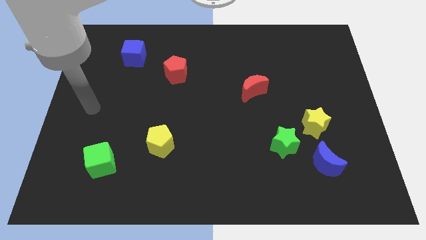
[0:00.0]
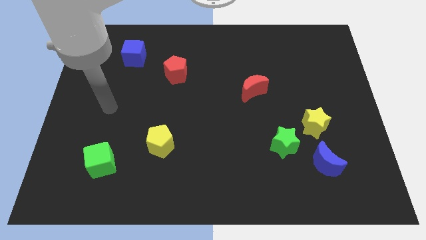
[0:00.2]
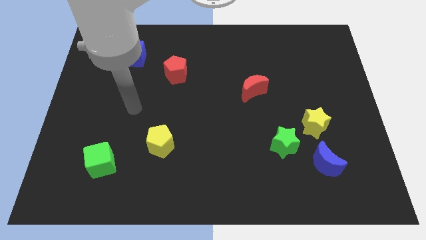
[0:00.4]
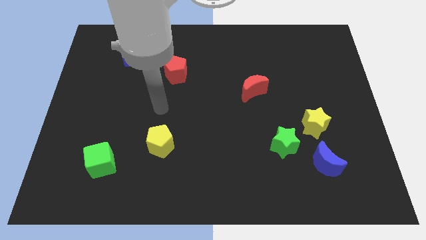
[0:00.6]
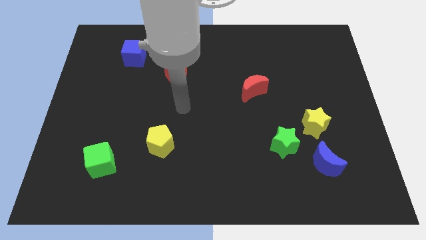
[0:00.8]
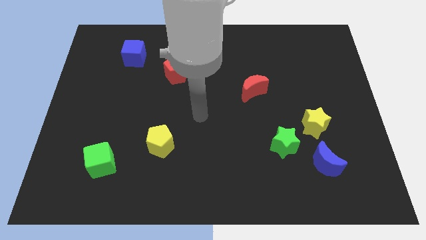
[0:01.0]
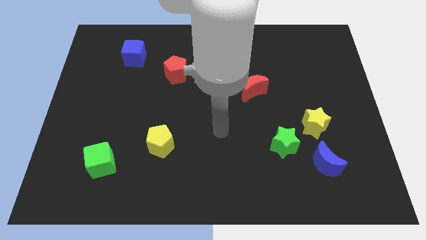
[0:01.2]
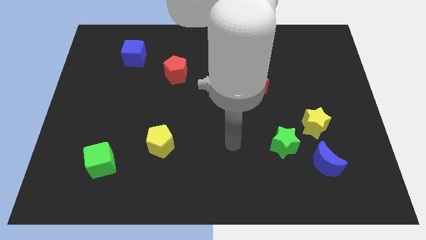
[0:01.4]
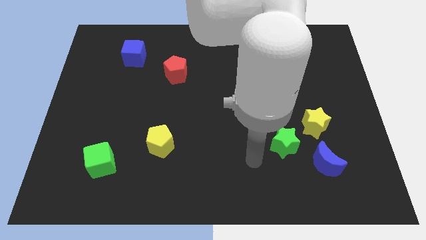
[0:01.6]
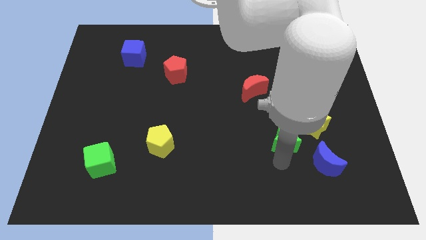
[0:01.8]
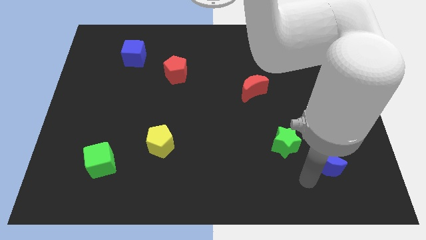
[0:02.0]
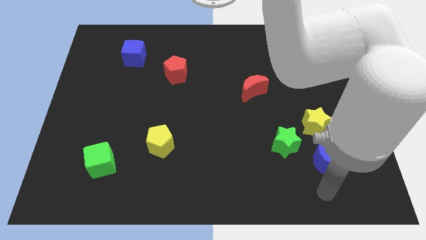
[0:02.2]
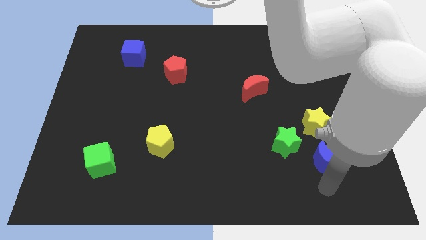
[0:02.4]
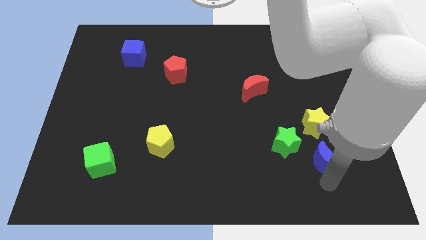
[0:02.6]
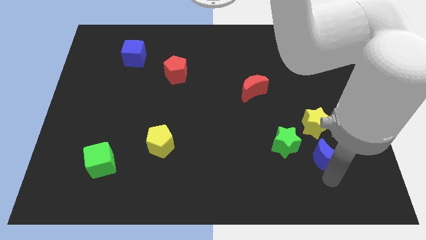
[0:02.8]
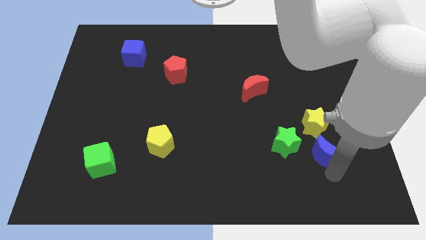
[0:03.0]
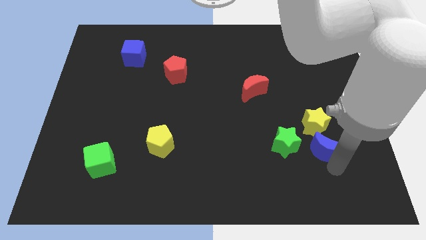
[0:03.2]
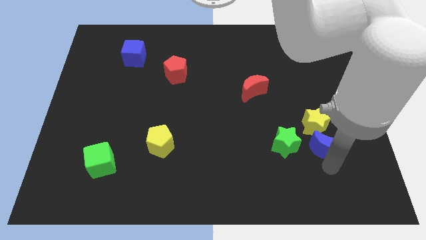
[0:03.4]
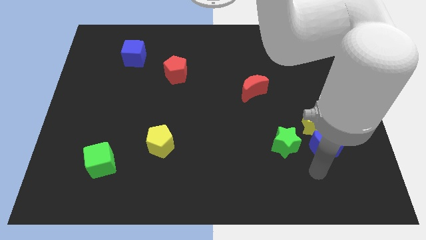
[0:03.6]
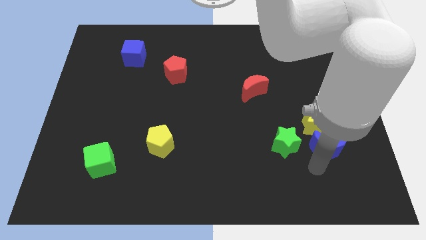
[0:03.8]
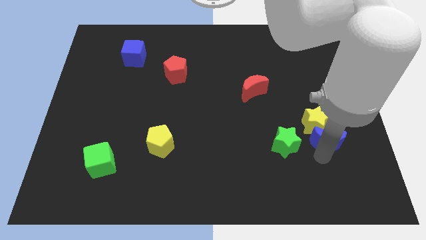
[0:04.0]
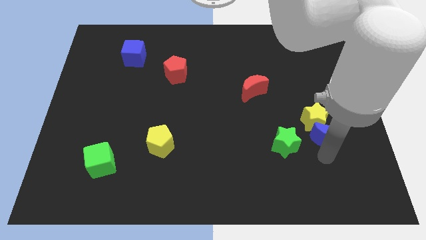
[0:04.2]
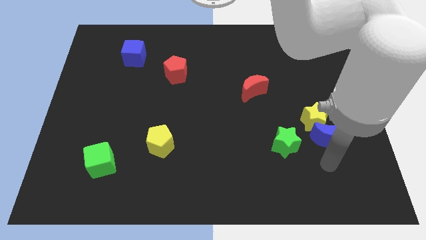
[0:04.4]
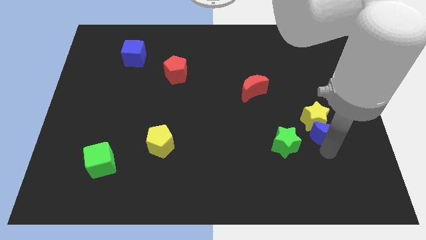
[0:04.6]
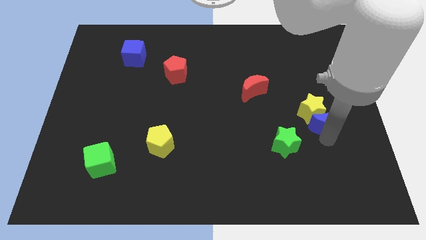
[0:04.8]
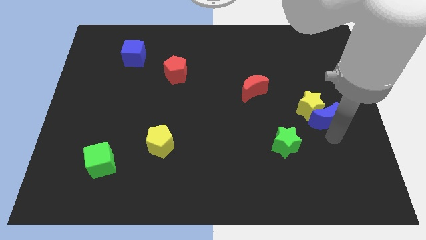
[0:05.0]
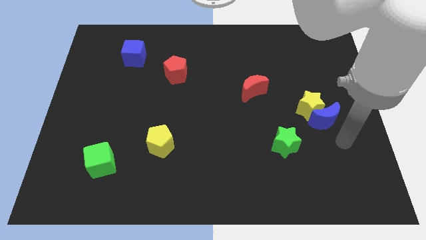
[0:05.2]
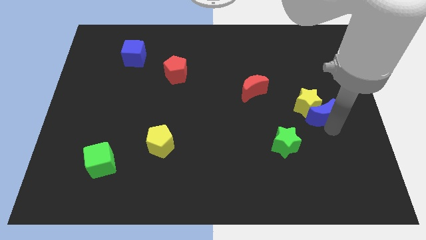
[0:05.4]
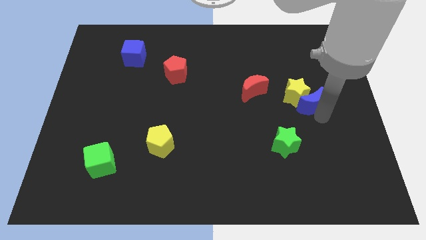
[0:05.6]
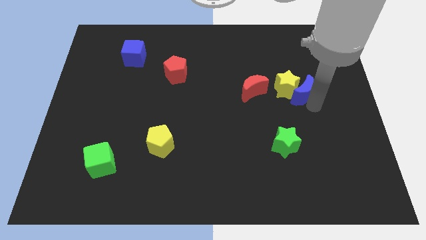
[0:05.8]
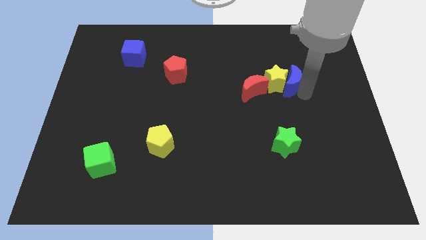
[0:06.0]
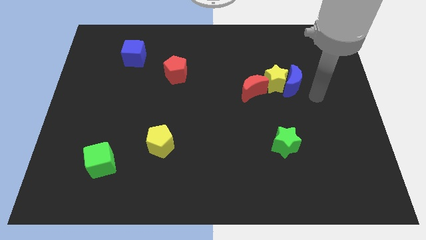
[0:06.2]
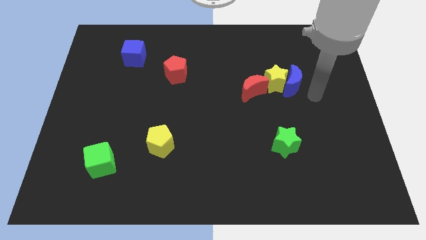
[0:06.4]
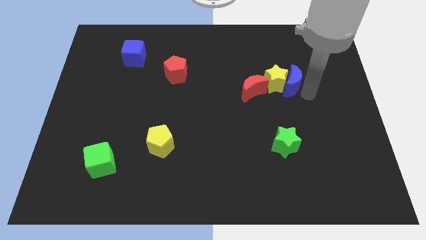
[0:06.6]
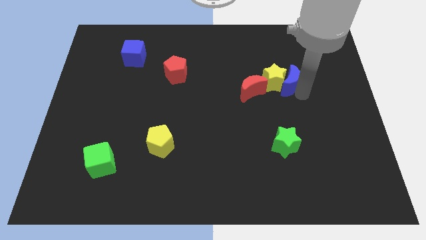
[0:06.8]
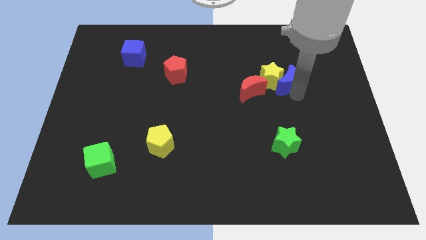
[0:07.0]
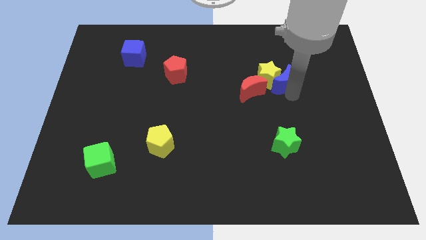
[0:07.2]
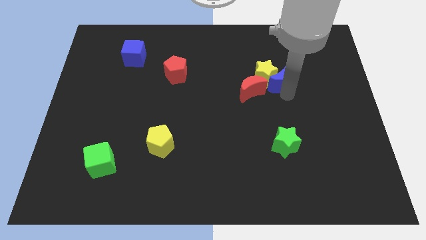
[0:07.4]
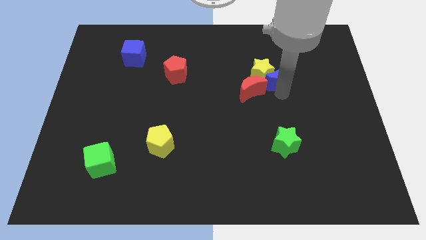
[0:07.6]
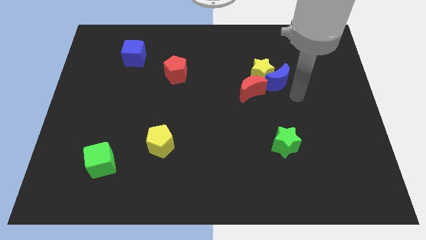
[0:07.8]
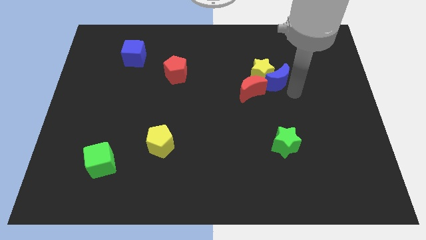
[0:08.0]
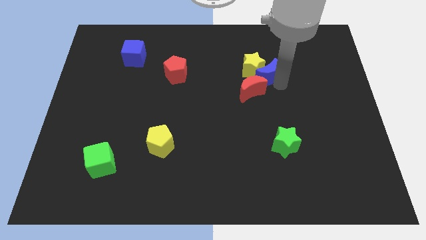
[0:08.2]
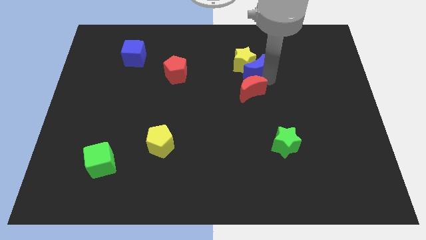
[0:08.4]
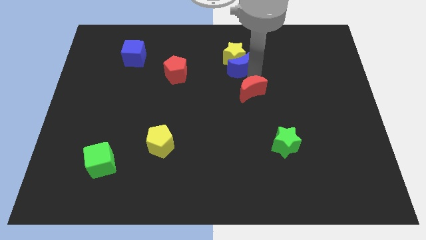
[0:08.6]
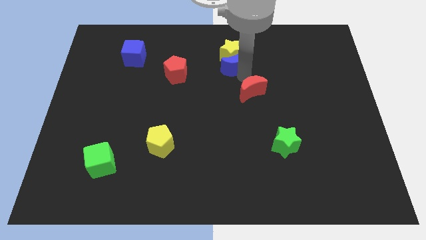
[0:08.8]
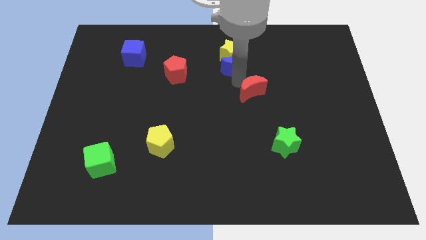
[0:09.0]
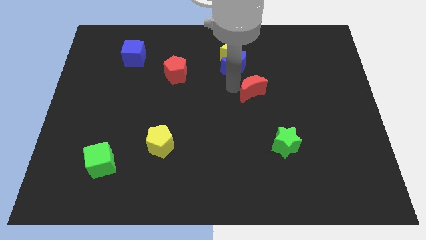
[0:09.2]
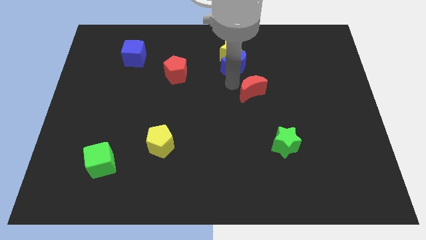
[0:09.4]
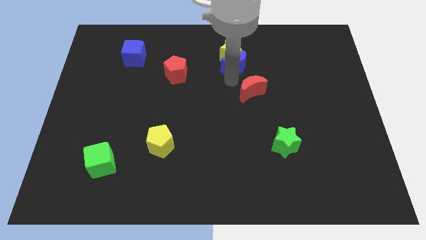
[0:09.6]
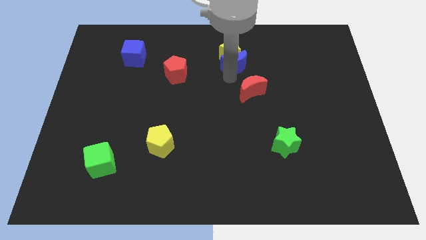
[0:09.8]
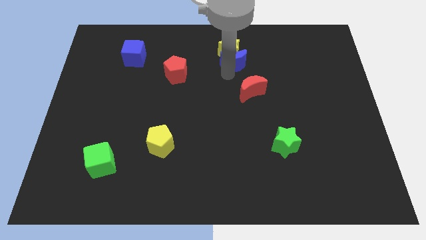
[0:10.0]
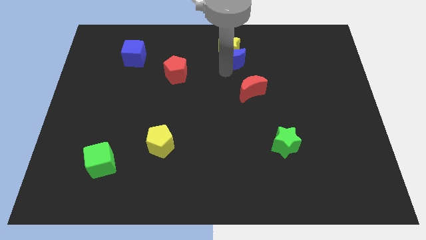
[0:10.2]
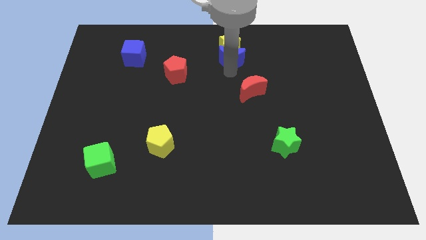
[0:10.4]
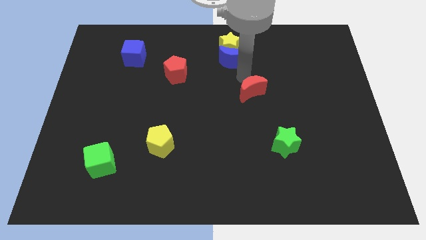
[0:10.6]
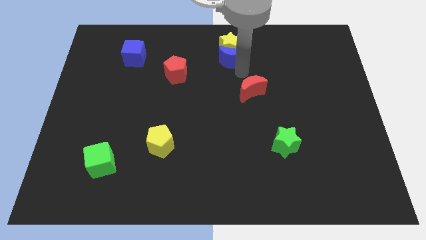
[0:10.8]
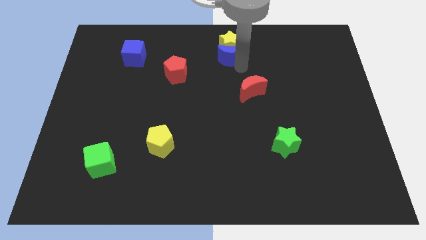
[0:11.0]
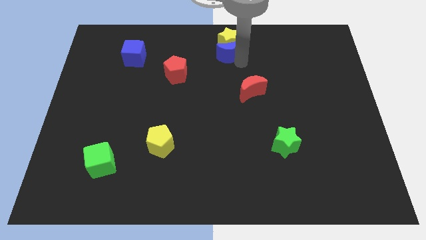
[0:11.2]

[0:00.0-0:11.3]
push the blue moon to the top

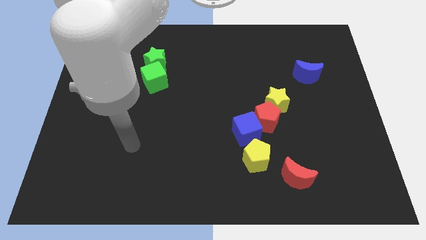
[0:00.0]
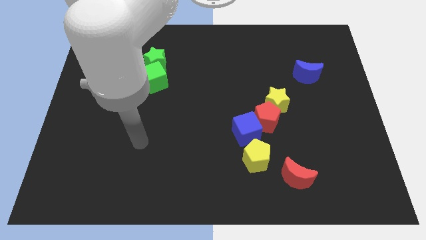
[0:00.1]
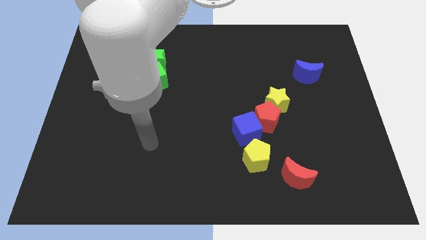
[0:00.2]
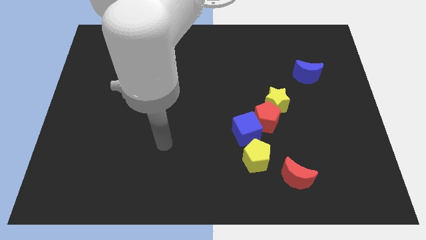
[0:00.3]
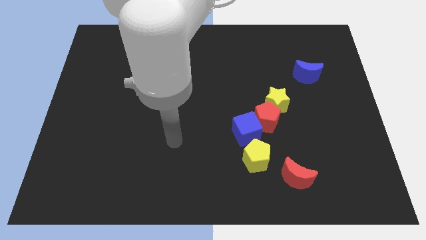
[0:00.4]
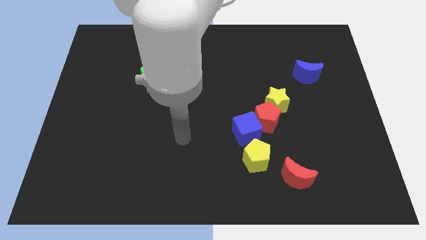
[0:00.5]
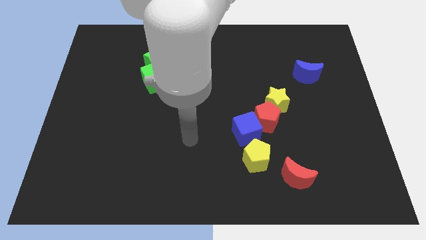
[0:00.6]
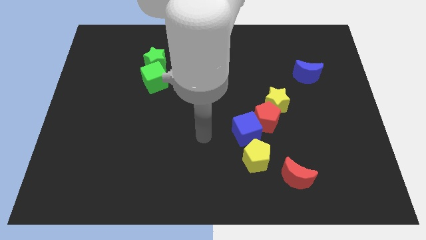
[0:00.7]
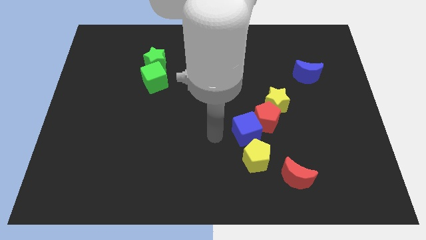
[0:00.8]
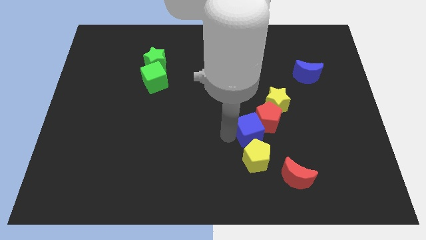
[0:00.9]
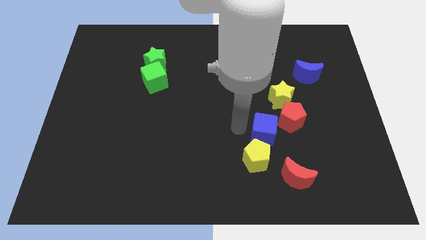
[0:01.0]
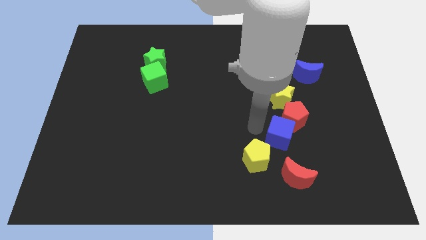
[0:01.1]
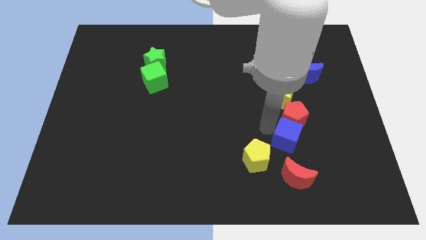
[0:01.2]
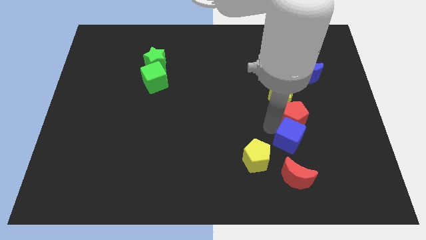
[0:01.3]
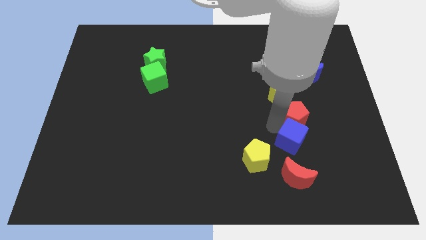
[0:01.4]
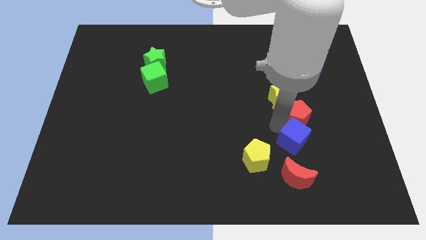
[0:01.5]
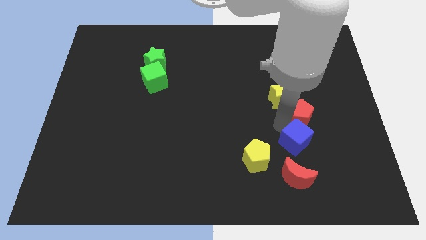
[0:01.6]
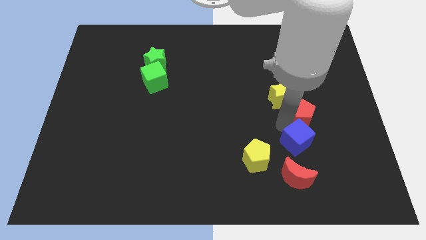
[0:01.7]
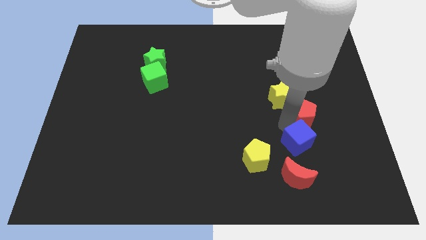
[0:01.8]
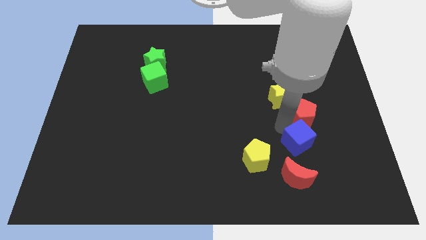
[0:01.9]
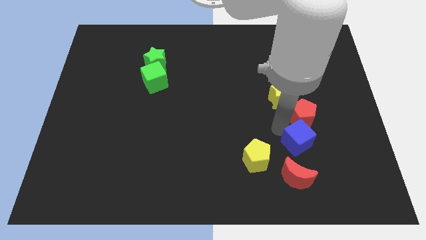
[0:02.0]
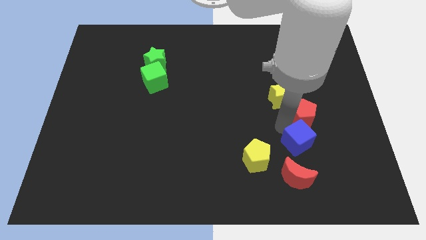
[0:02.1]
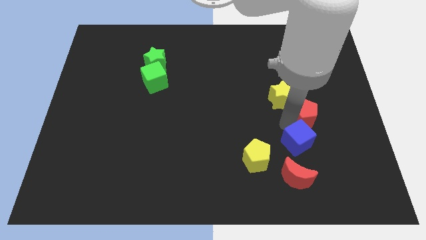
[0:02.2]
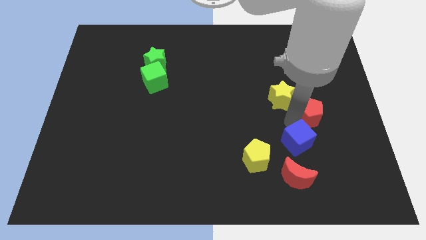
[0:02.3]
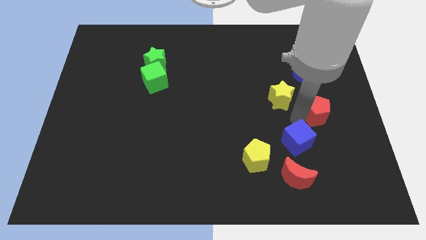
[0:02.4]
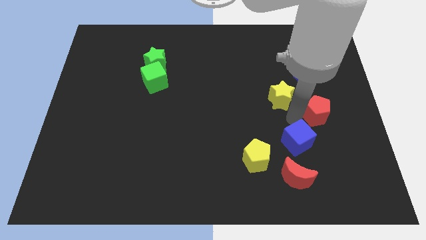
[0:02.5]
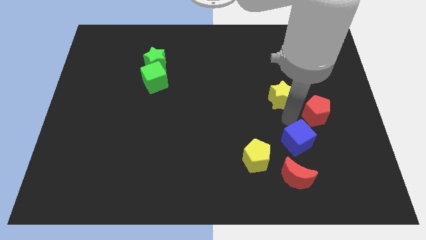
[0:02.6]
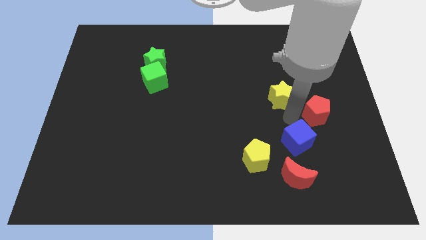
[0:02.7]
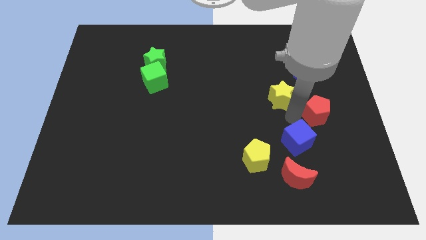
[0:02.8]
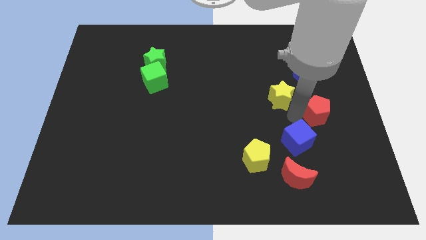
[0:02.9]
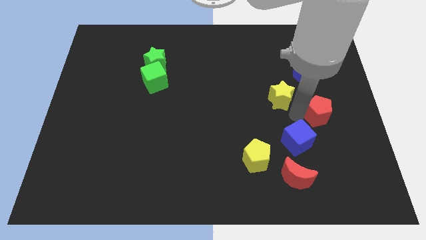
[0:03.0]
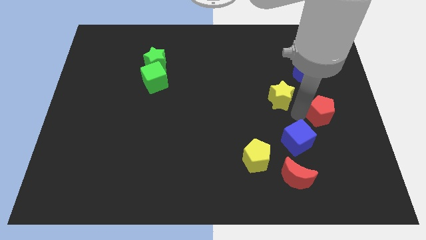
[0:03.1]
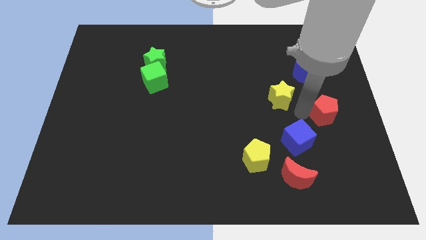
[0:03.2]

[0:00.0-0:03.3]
put the red pentagon to the right side
